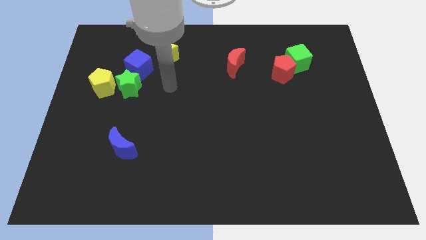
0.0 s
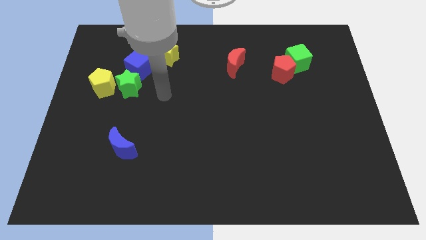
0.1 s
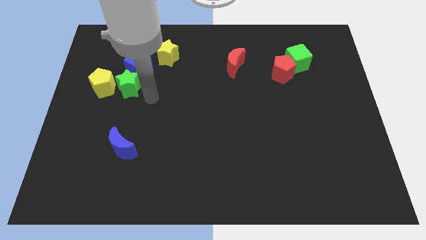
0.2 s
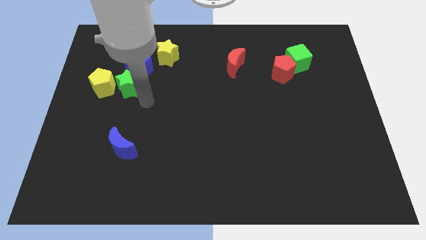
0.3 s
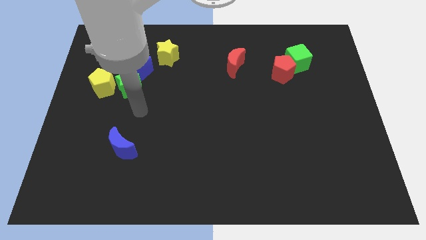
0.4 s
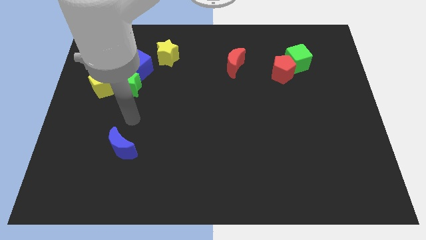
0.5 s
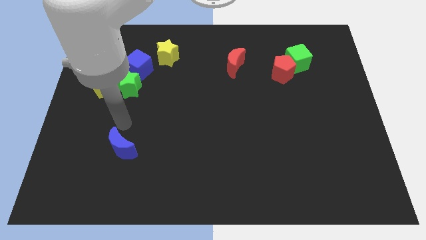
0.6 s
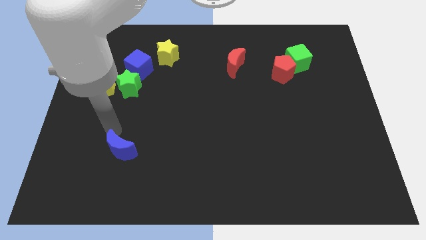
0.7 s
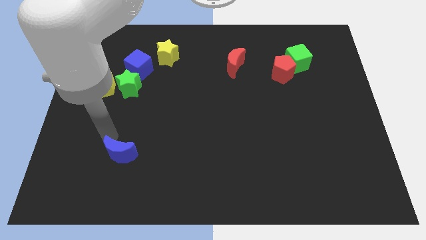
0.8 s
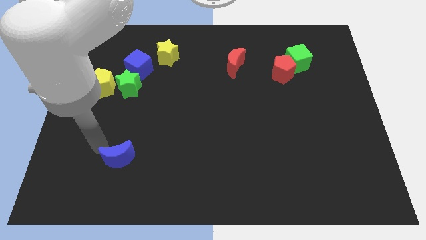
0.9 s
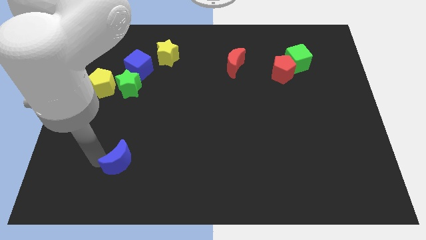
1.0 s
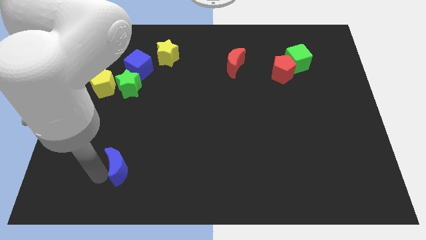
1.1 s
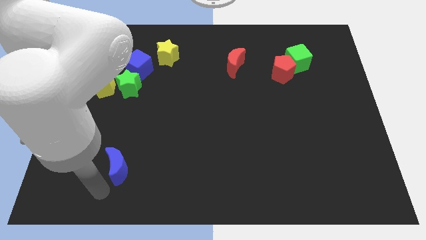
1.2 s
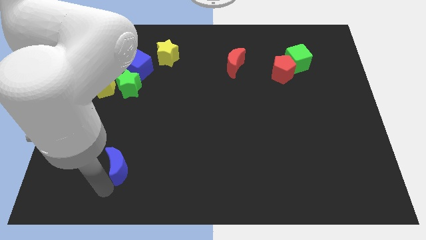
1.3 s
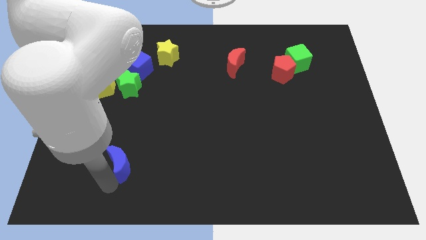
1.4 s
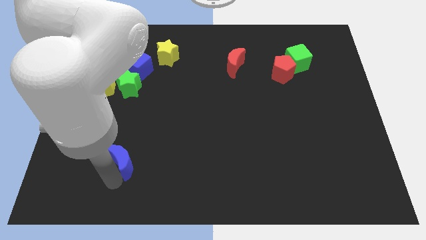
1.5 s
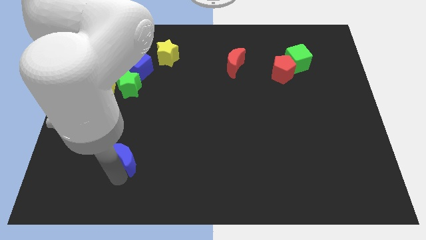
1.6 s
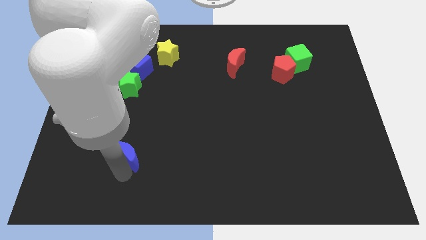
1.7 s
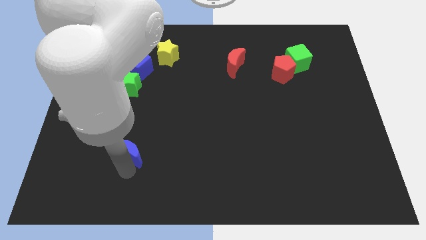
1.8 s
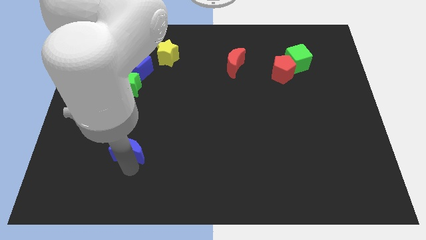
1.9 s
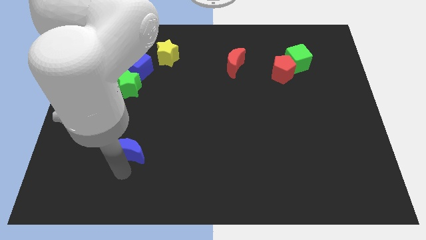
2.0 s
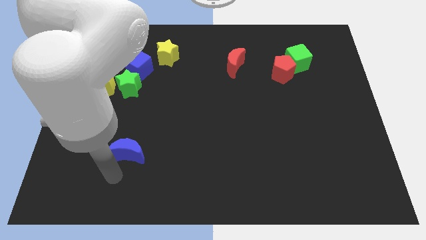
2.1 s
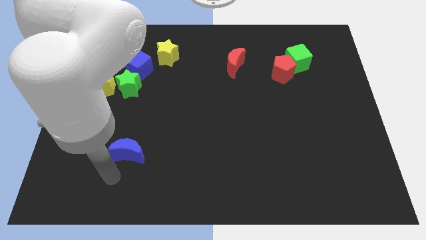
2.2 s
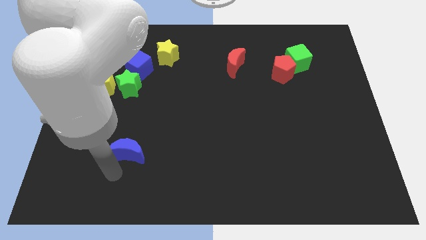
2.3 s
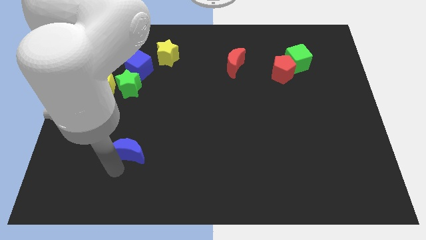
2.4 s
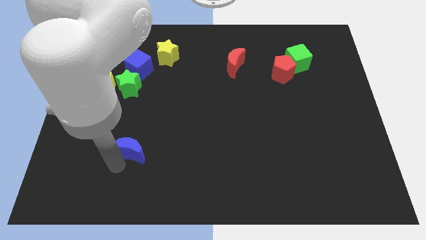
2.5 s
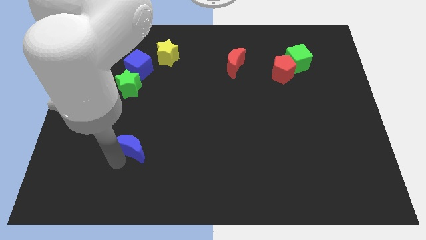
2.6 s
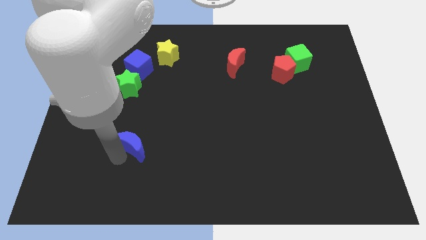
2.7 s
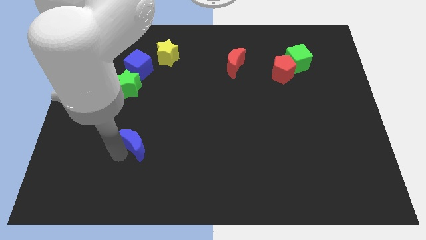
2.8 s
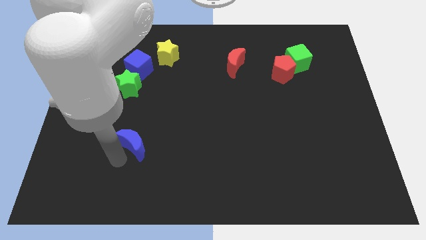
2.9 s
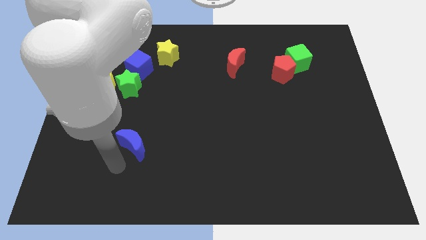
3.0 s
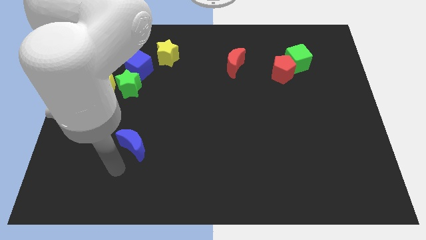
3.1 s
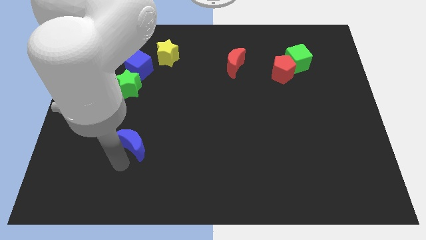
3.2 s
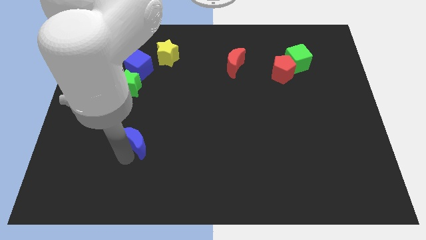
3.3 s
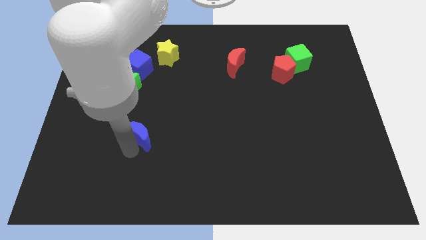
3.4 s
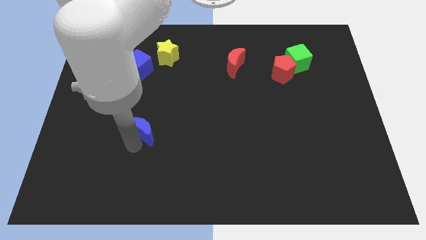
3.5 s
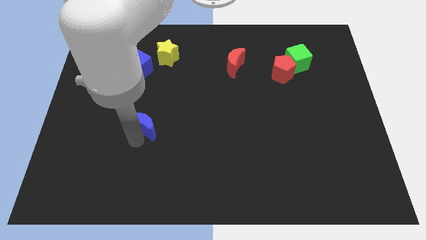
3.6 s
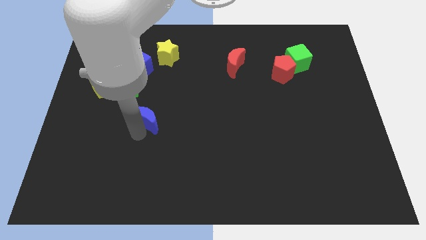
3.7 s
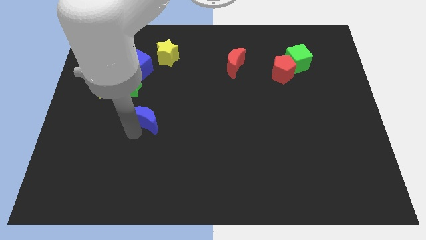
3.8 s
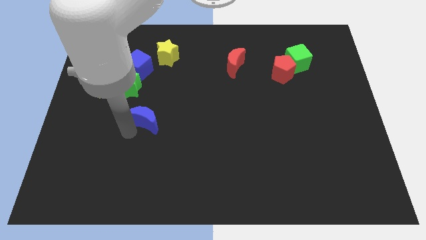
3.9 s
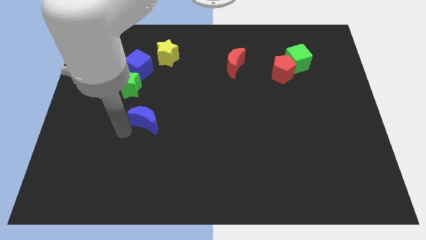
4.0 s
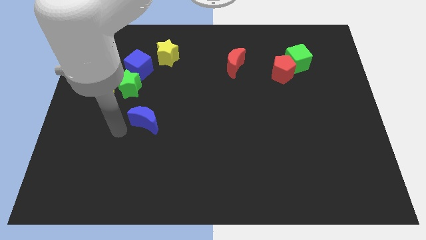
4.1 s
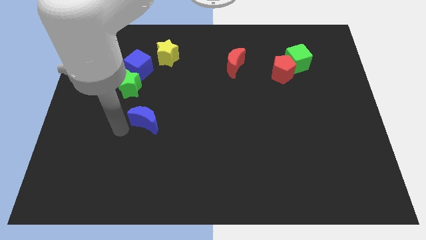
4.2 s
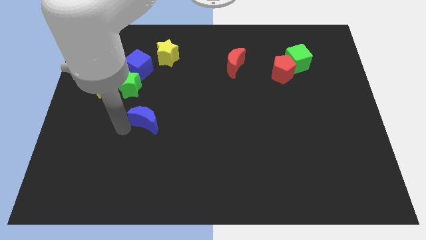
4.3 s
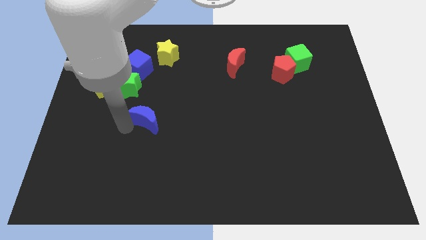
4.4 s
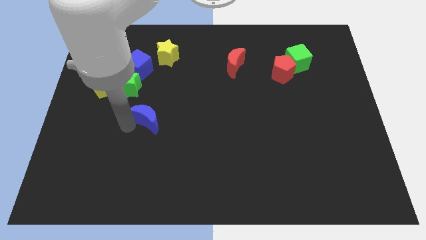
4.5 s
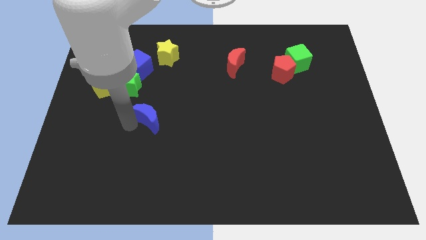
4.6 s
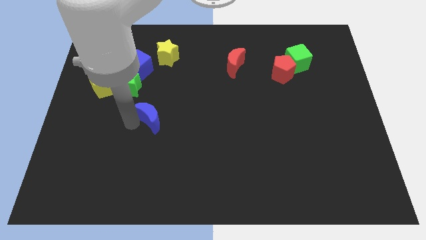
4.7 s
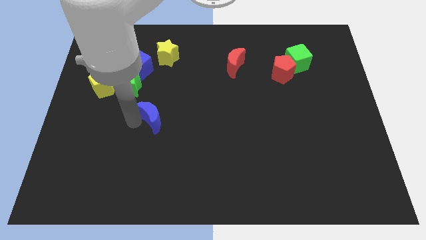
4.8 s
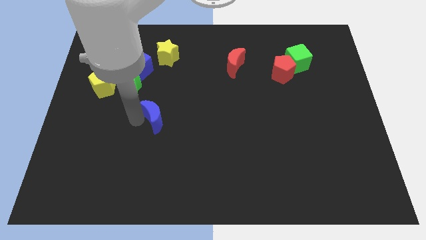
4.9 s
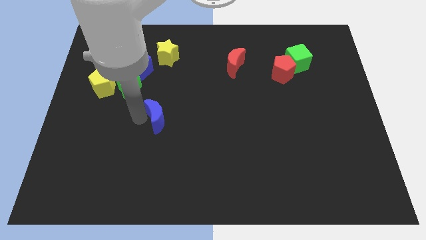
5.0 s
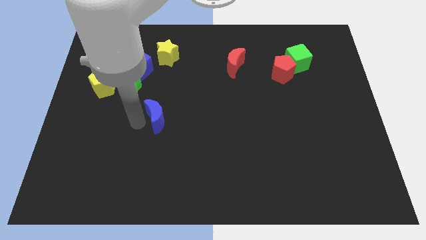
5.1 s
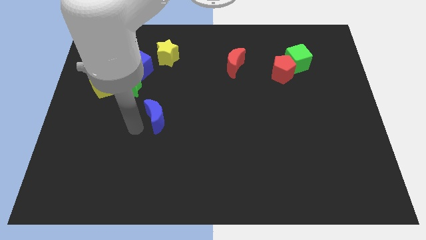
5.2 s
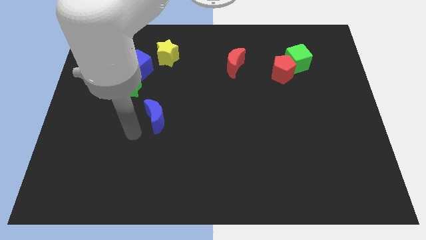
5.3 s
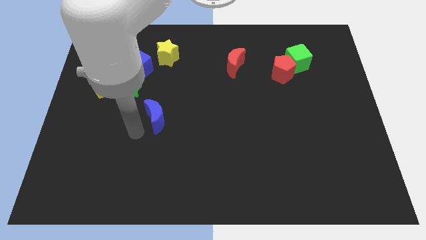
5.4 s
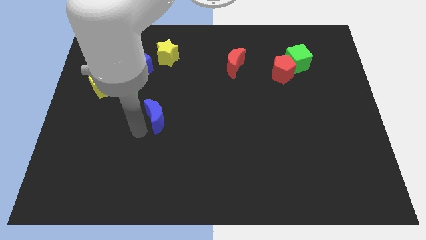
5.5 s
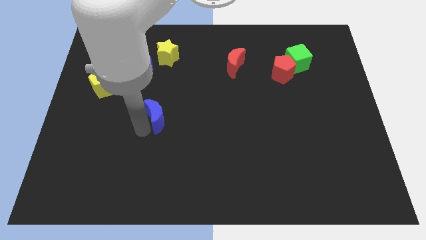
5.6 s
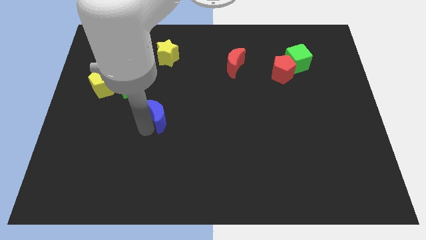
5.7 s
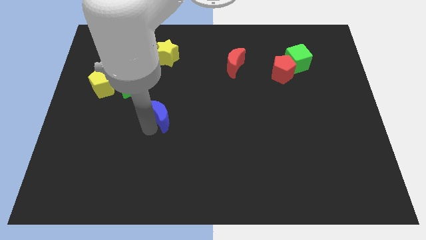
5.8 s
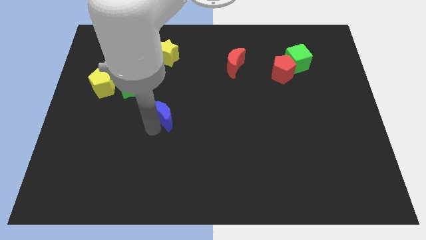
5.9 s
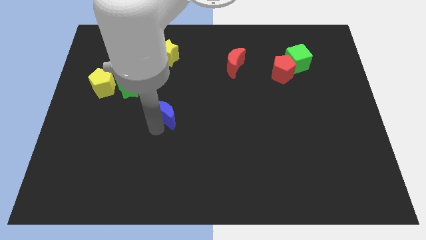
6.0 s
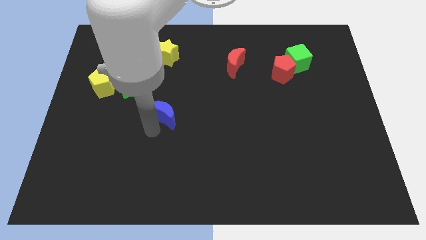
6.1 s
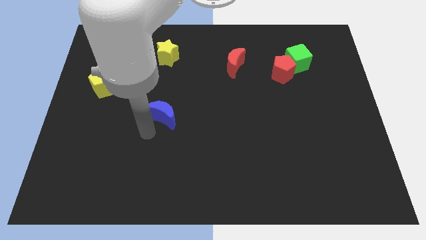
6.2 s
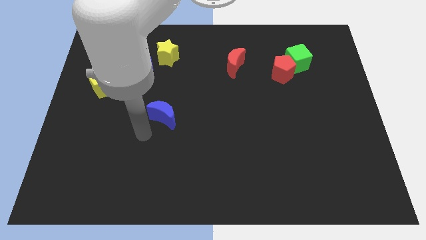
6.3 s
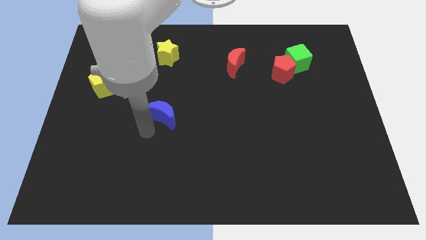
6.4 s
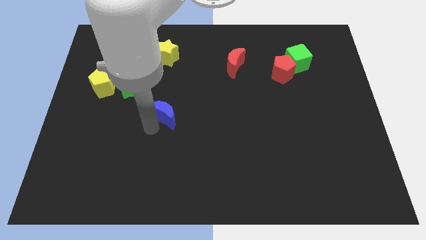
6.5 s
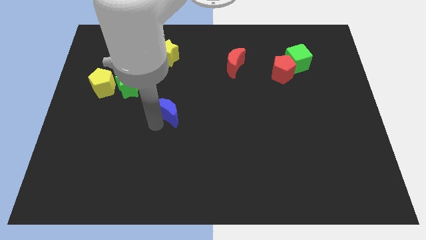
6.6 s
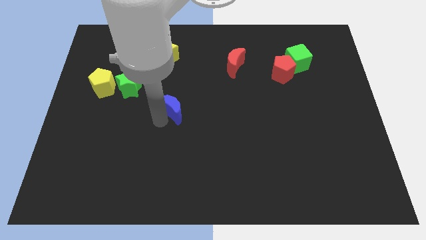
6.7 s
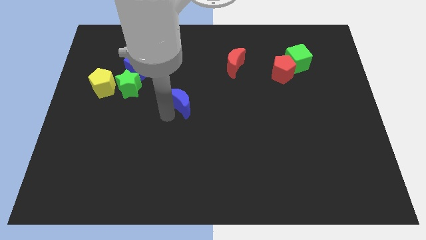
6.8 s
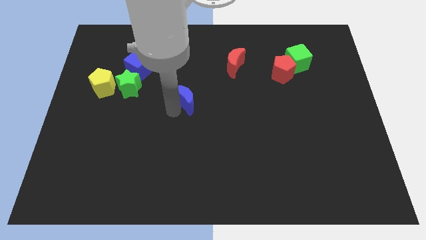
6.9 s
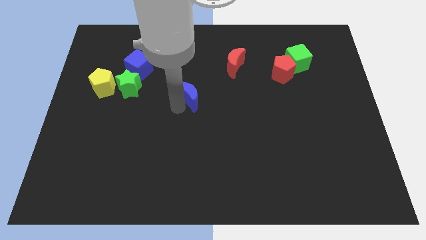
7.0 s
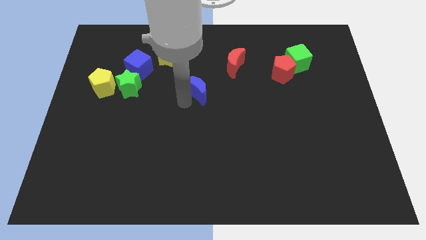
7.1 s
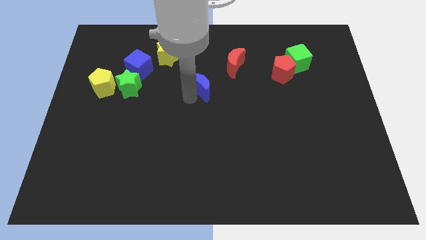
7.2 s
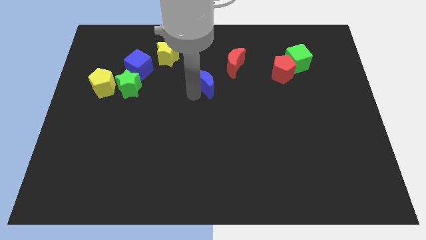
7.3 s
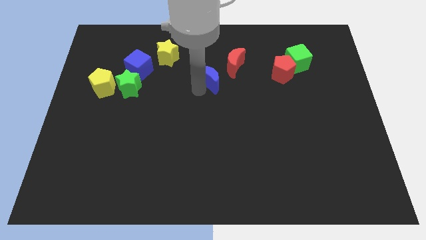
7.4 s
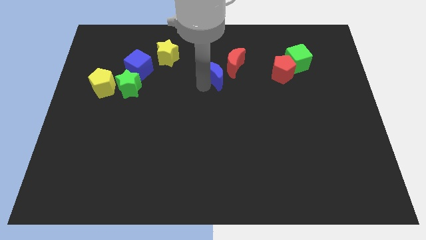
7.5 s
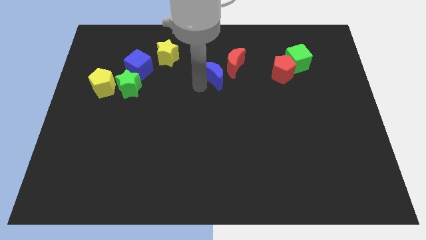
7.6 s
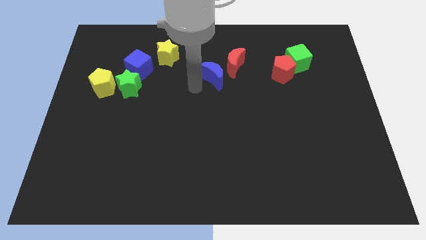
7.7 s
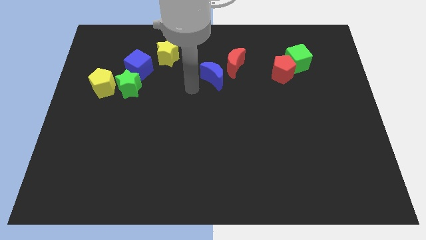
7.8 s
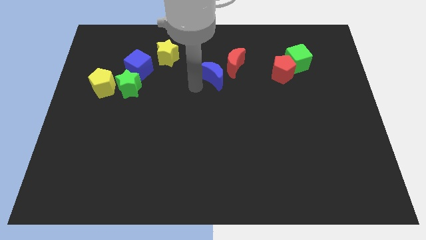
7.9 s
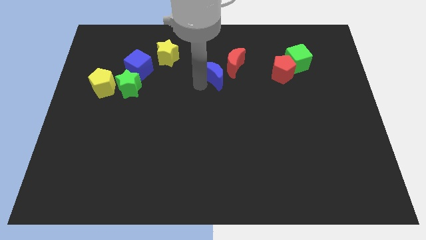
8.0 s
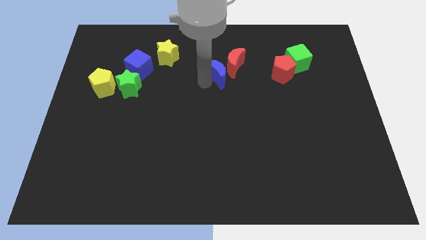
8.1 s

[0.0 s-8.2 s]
move the blue moon towards the red moon
